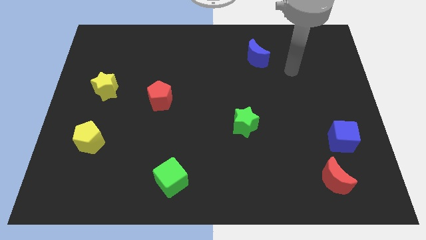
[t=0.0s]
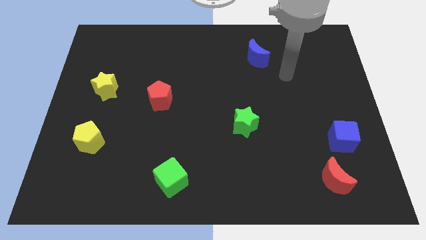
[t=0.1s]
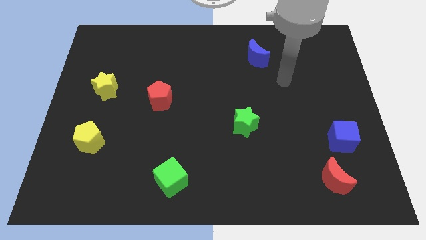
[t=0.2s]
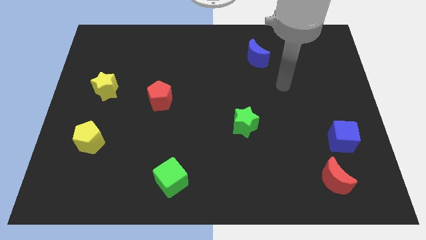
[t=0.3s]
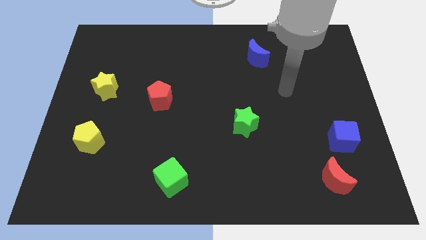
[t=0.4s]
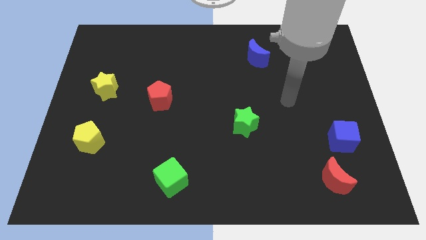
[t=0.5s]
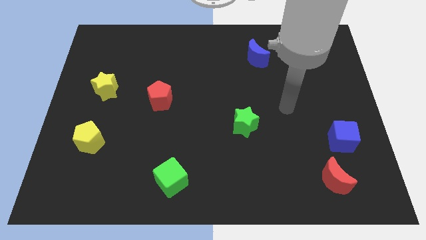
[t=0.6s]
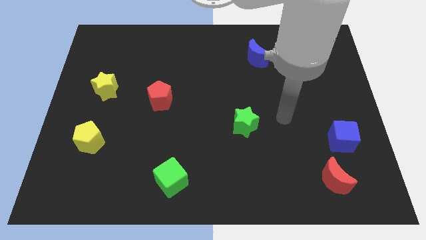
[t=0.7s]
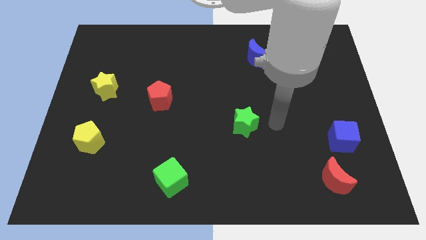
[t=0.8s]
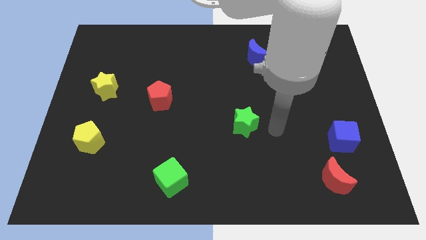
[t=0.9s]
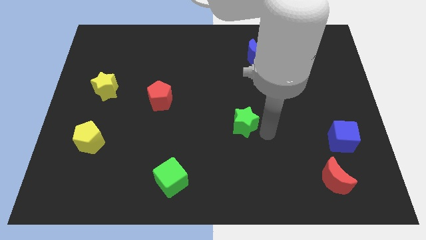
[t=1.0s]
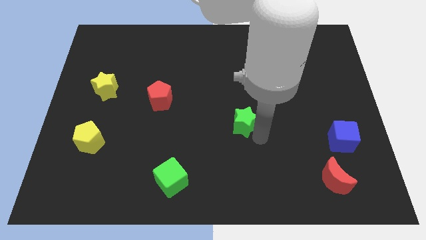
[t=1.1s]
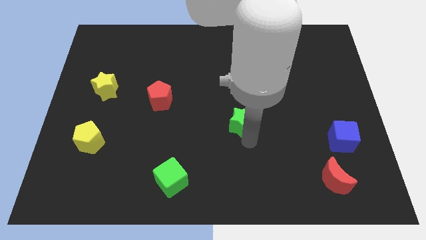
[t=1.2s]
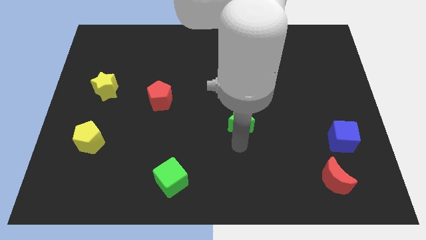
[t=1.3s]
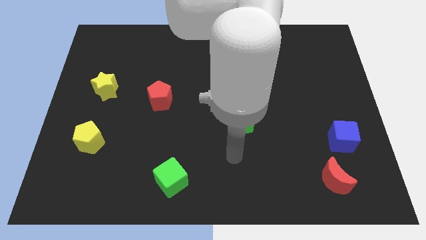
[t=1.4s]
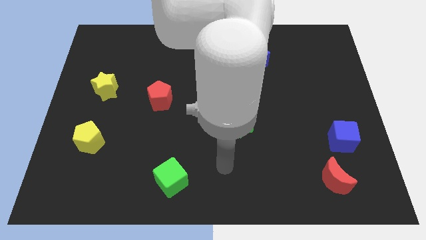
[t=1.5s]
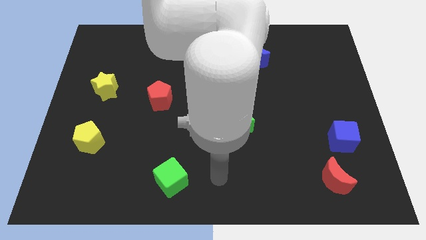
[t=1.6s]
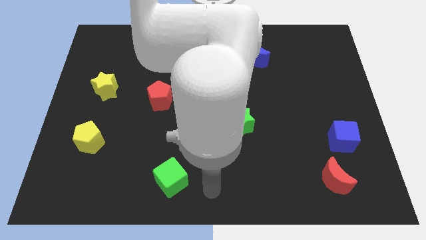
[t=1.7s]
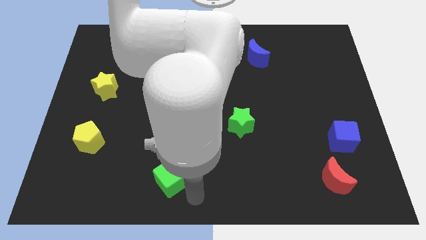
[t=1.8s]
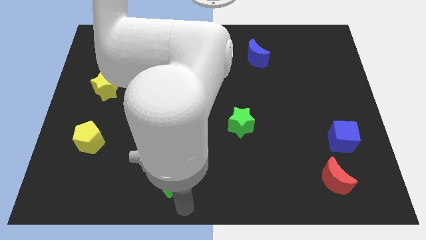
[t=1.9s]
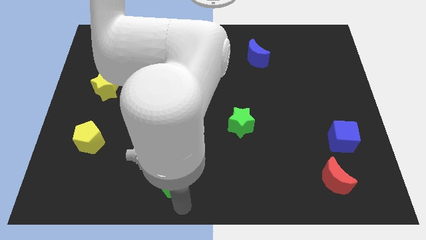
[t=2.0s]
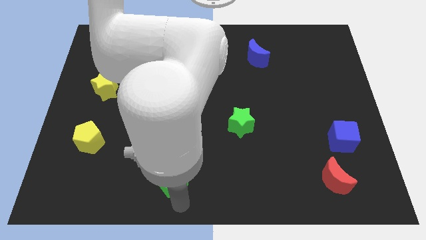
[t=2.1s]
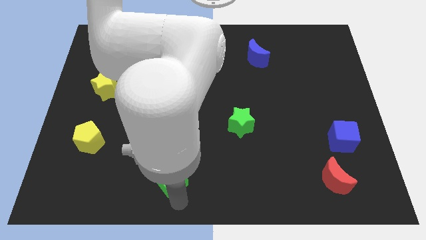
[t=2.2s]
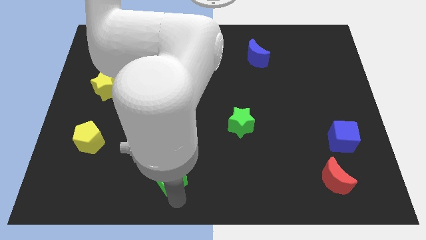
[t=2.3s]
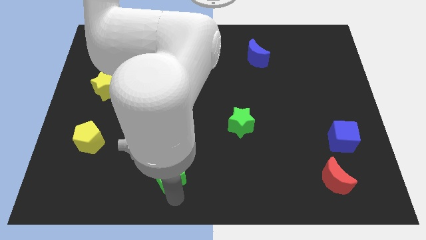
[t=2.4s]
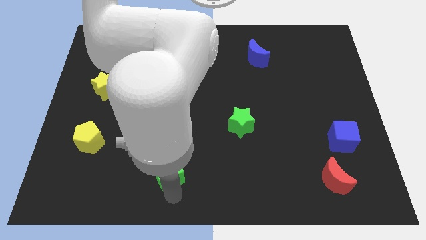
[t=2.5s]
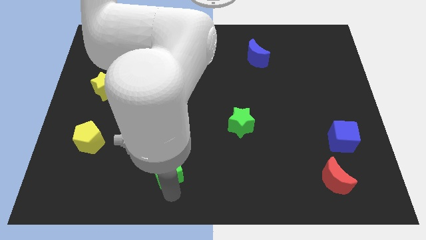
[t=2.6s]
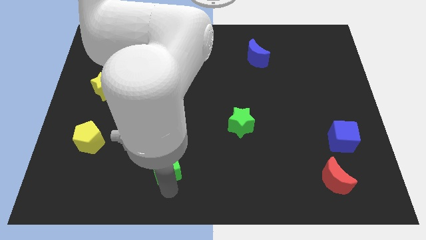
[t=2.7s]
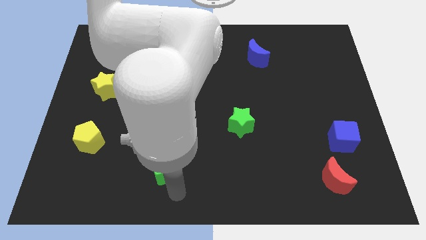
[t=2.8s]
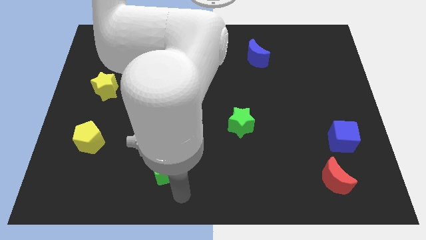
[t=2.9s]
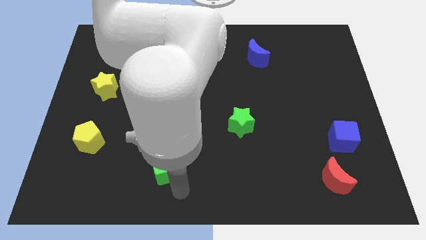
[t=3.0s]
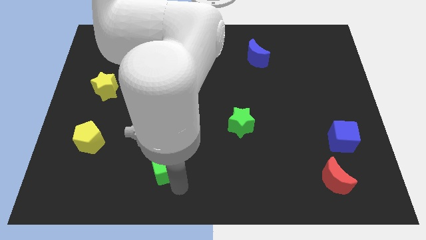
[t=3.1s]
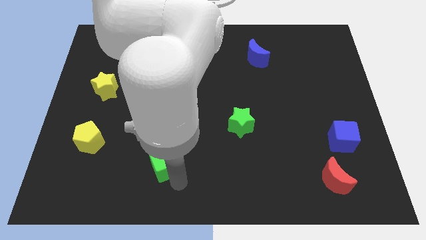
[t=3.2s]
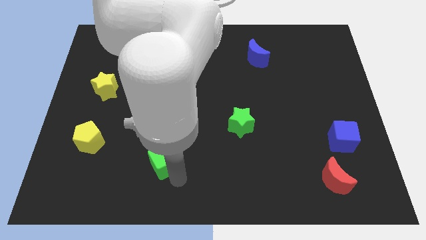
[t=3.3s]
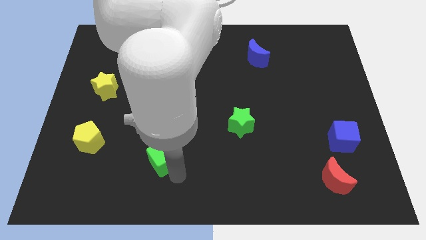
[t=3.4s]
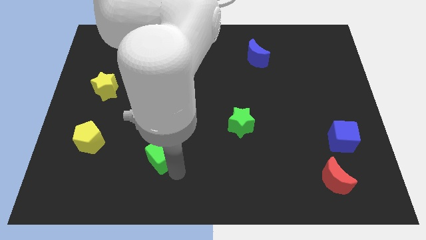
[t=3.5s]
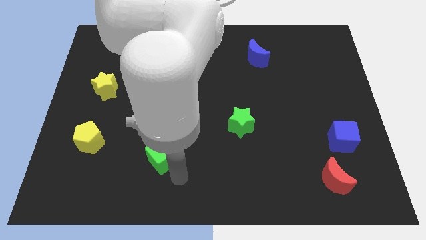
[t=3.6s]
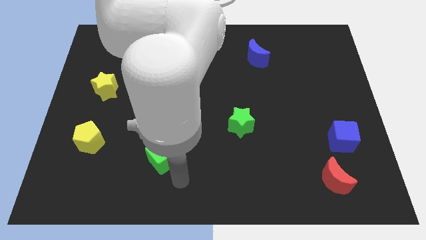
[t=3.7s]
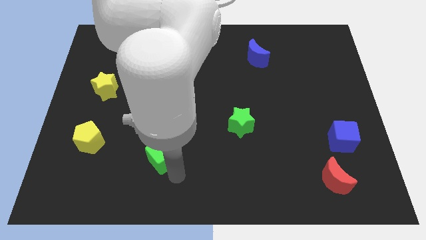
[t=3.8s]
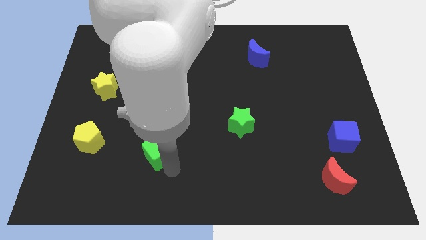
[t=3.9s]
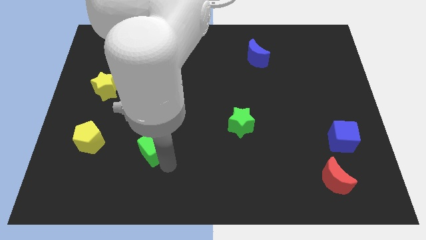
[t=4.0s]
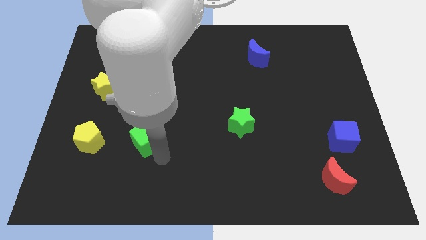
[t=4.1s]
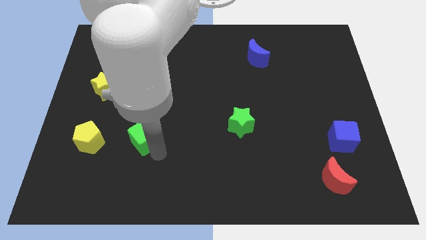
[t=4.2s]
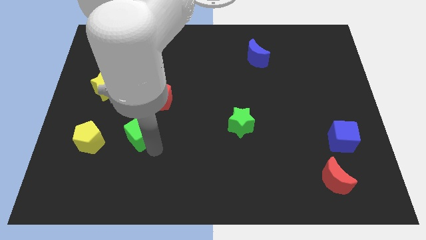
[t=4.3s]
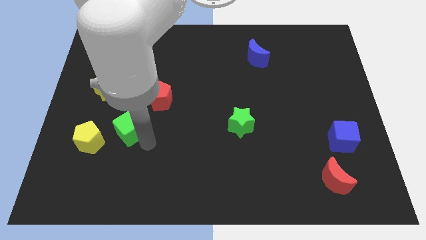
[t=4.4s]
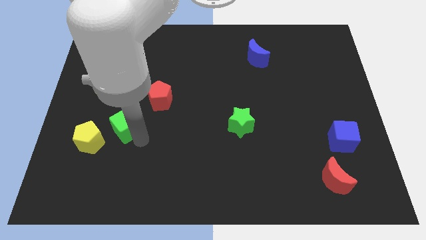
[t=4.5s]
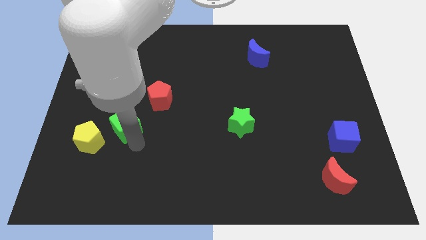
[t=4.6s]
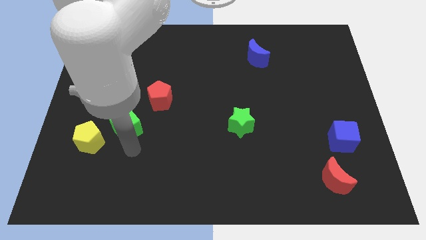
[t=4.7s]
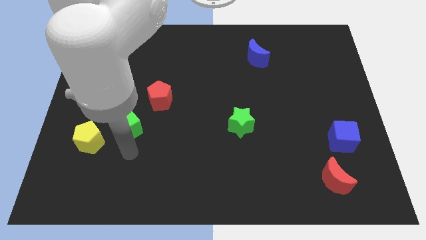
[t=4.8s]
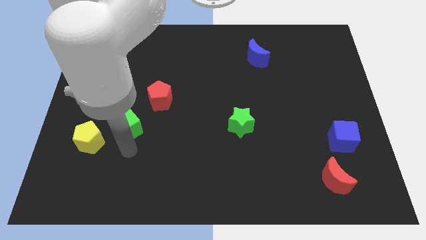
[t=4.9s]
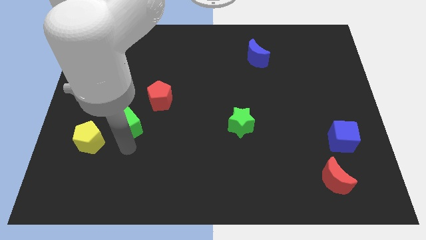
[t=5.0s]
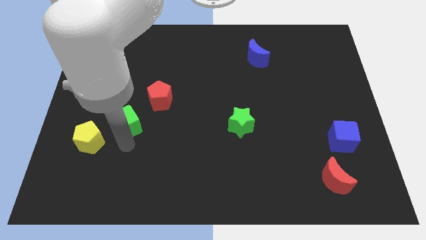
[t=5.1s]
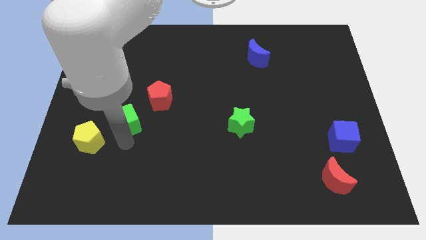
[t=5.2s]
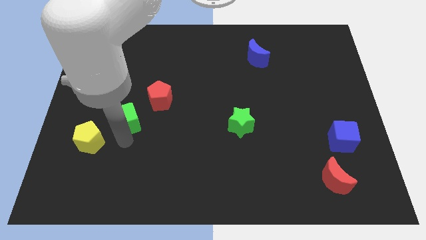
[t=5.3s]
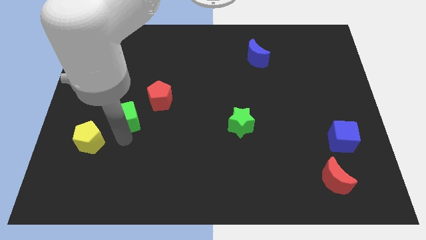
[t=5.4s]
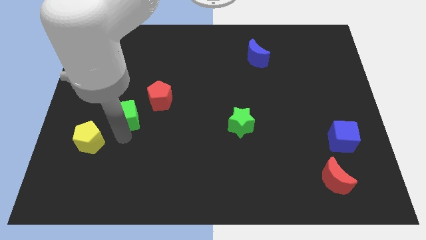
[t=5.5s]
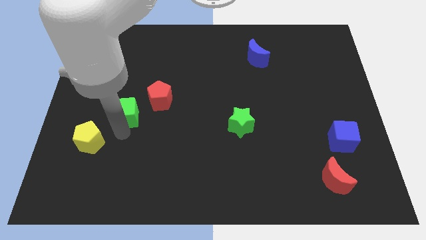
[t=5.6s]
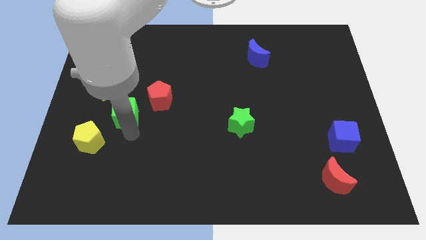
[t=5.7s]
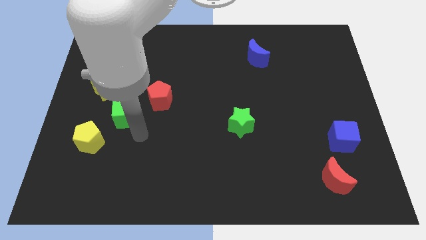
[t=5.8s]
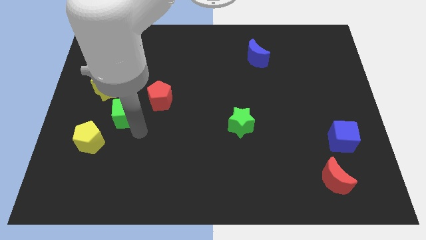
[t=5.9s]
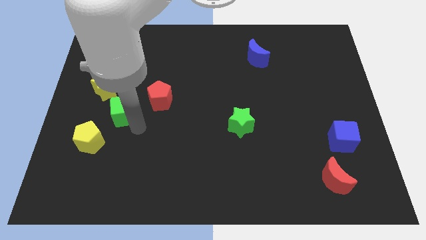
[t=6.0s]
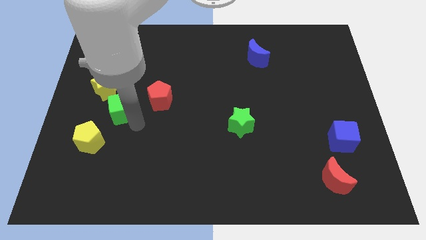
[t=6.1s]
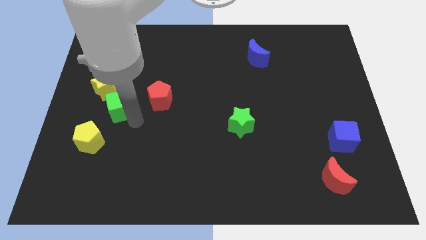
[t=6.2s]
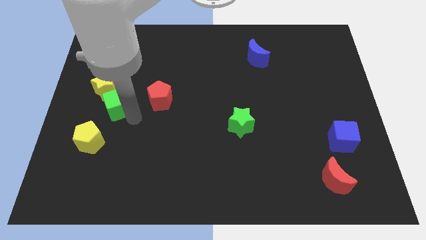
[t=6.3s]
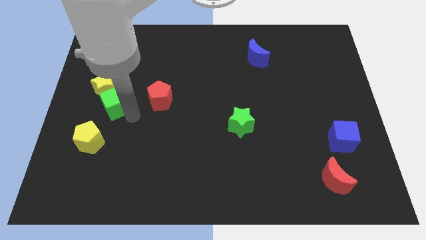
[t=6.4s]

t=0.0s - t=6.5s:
move the green cube next to the yellow star
